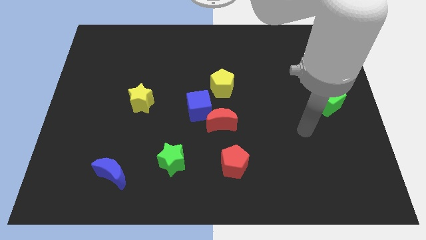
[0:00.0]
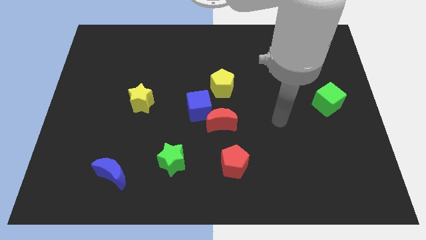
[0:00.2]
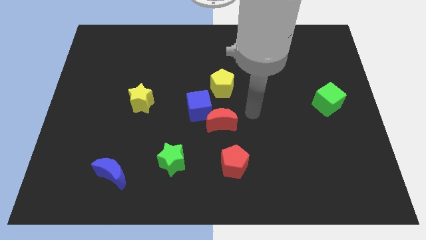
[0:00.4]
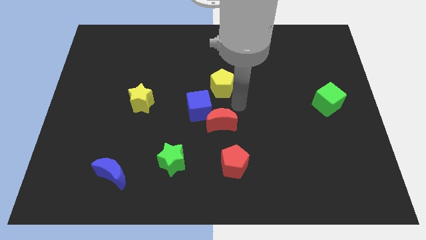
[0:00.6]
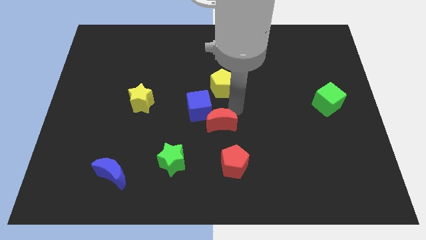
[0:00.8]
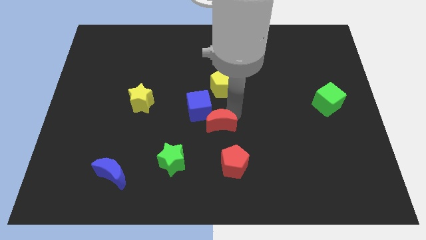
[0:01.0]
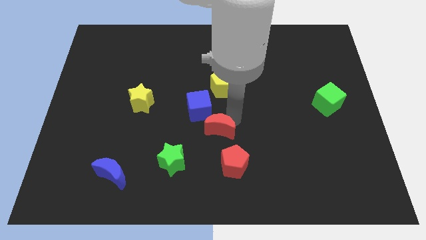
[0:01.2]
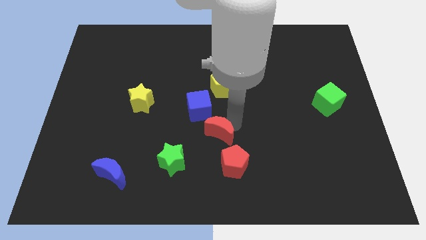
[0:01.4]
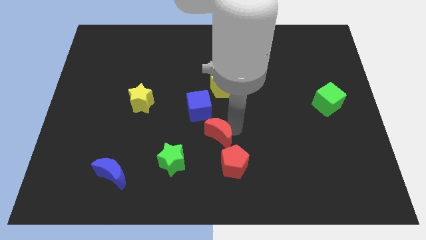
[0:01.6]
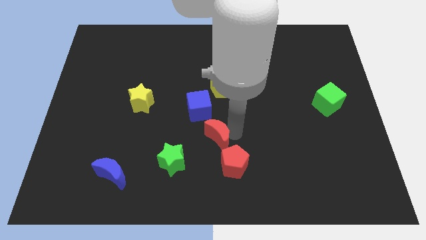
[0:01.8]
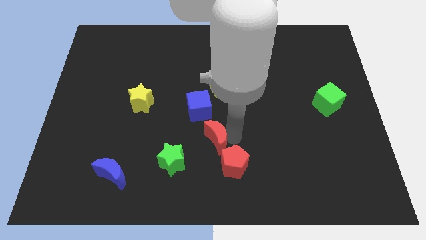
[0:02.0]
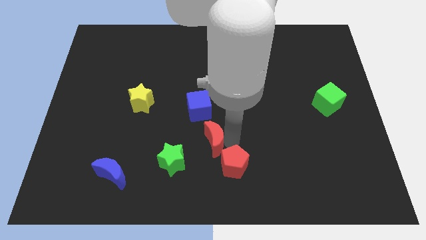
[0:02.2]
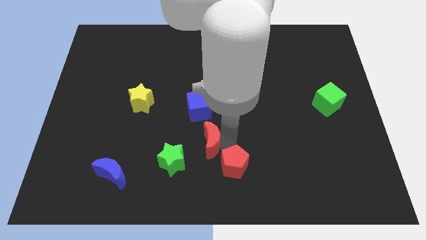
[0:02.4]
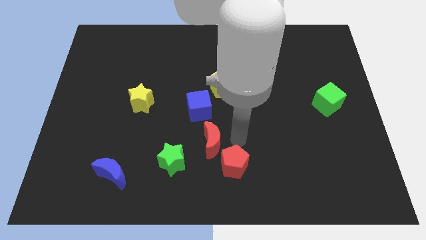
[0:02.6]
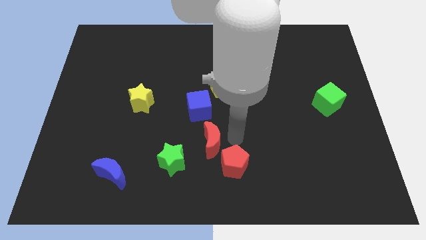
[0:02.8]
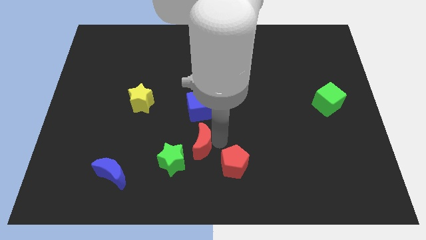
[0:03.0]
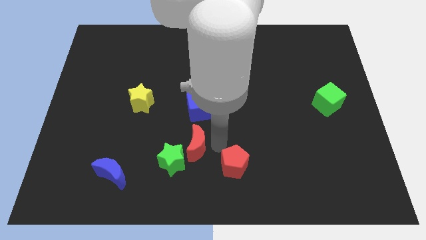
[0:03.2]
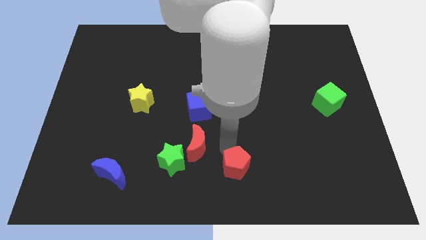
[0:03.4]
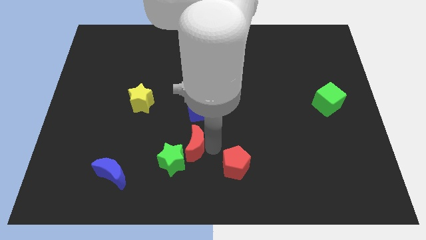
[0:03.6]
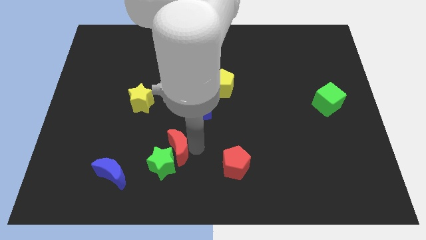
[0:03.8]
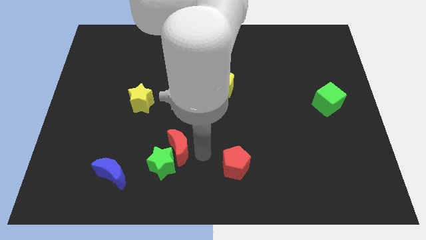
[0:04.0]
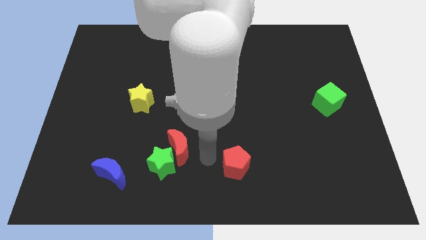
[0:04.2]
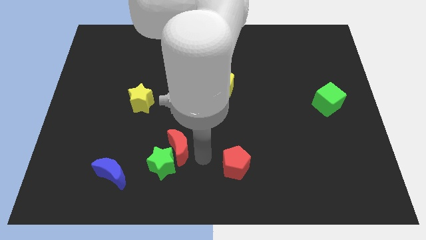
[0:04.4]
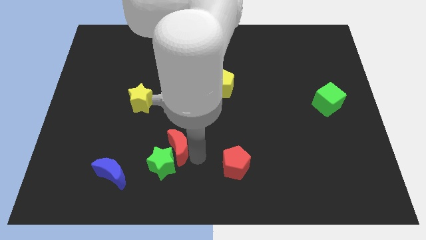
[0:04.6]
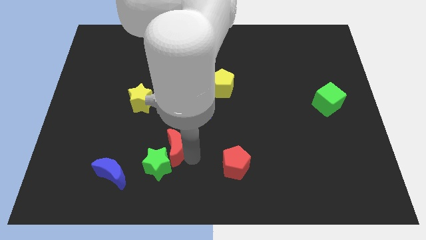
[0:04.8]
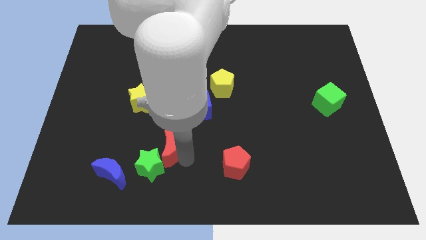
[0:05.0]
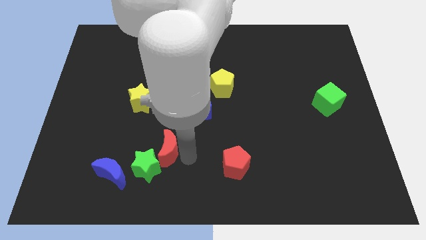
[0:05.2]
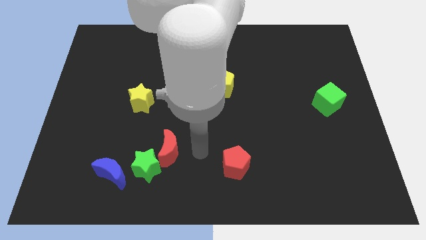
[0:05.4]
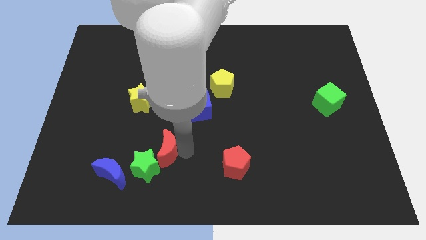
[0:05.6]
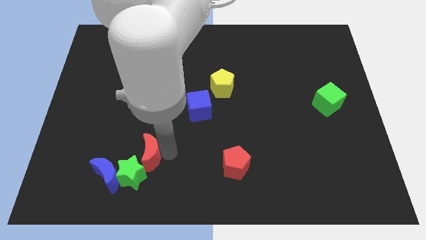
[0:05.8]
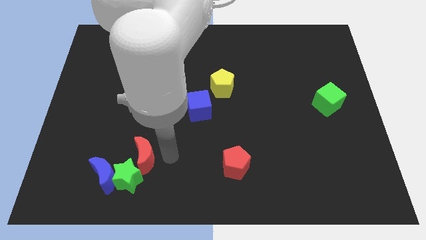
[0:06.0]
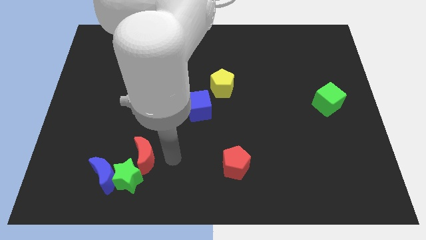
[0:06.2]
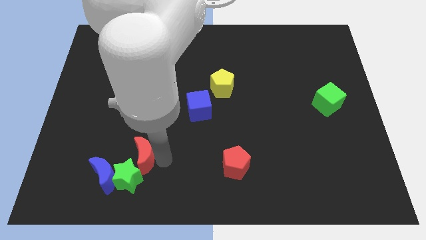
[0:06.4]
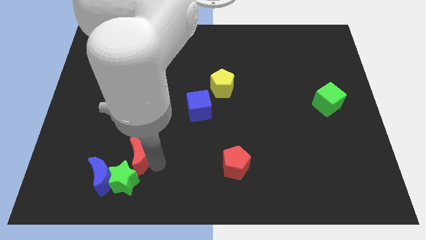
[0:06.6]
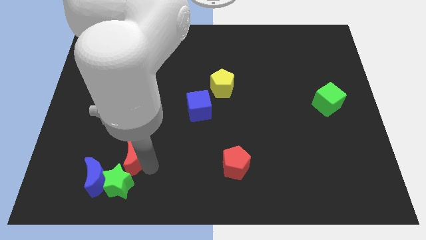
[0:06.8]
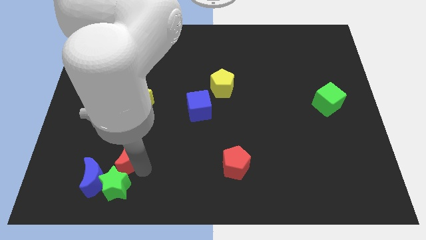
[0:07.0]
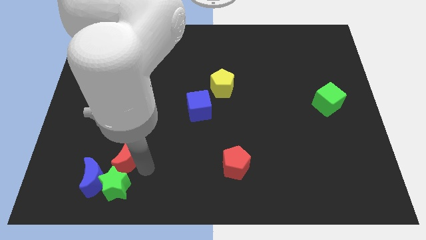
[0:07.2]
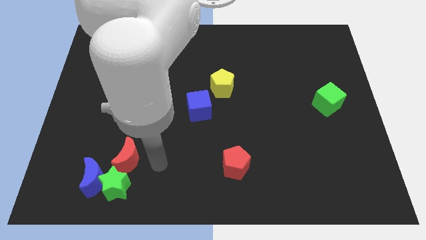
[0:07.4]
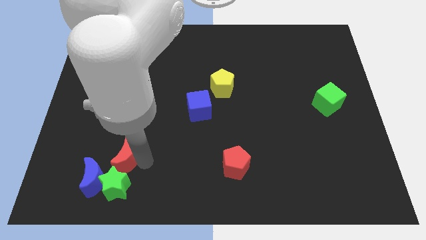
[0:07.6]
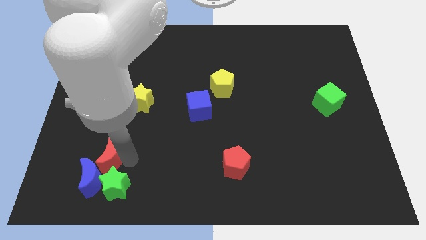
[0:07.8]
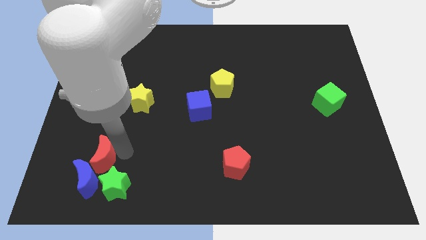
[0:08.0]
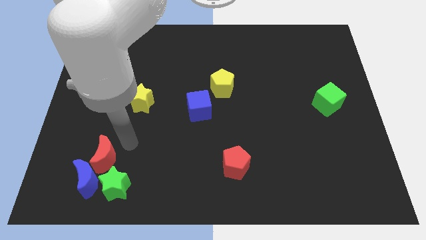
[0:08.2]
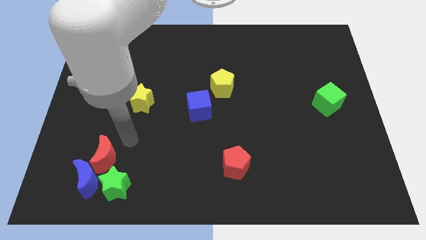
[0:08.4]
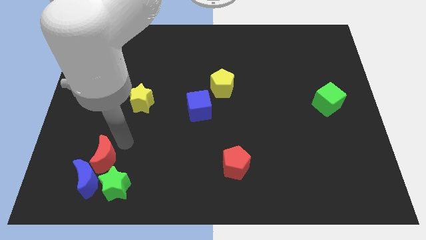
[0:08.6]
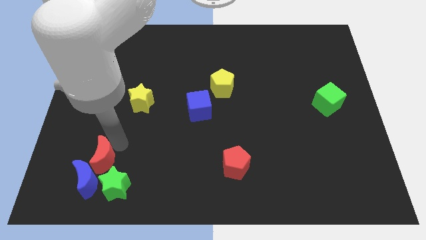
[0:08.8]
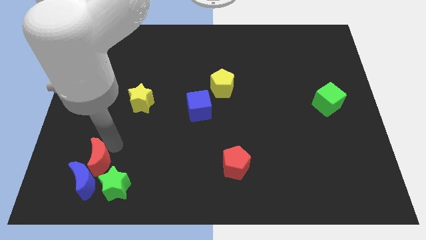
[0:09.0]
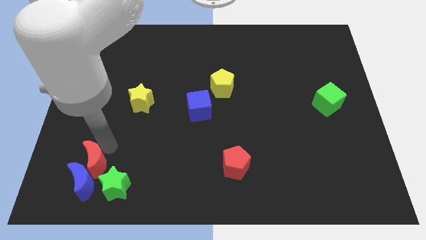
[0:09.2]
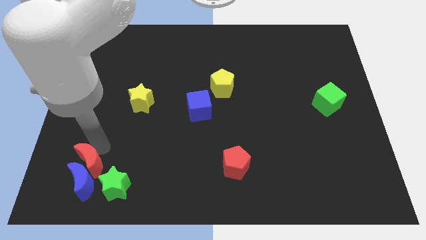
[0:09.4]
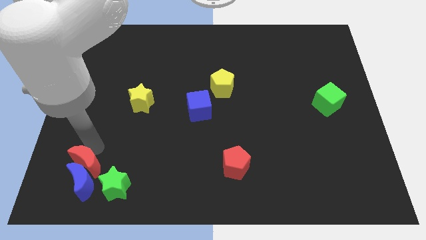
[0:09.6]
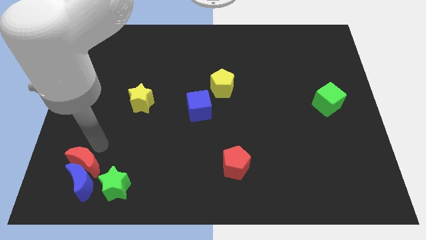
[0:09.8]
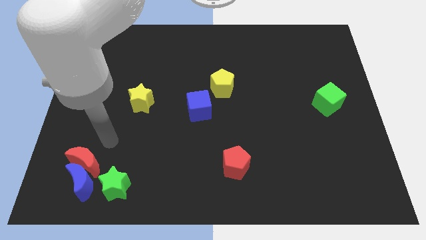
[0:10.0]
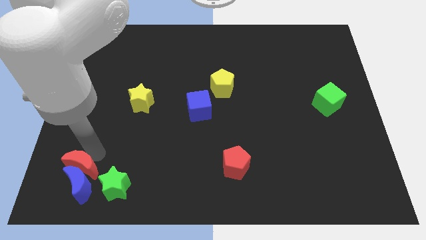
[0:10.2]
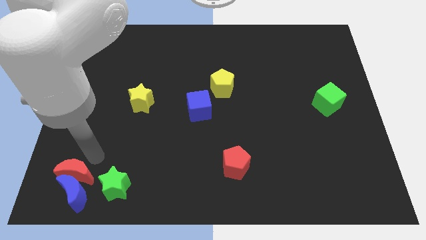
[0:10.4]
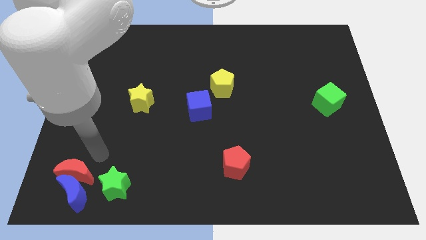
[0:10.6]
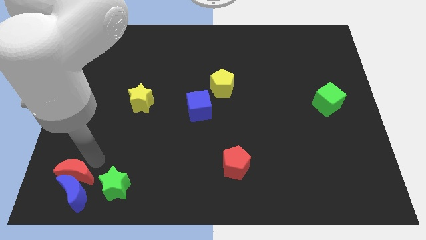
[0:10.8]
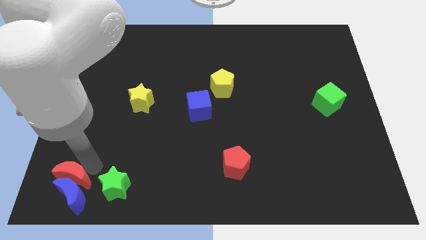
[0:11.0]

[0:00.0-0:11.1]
put the red moon to the lower left corner

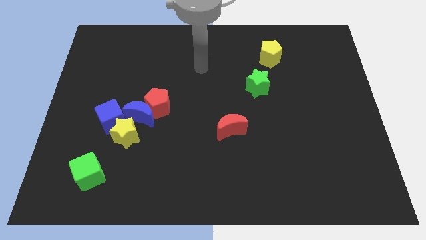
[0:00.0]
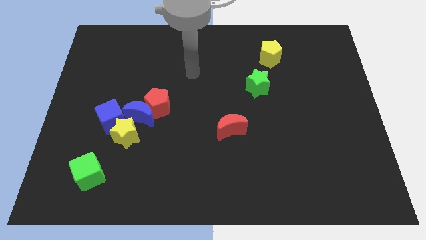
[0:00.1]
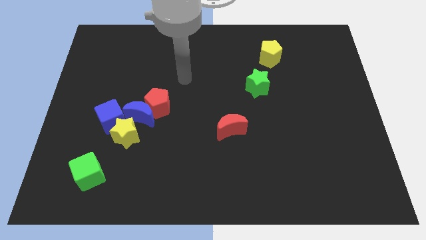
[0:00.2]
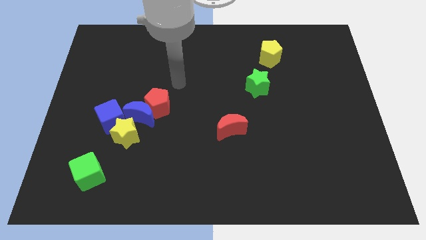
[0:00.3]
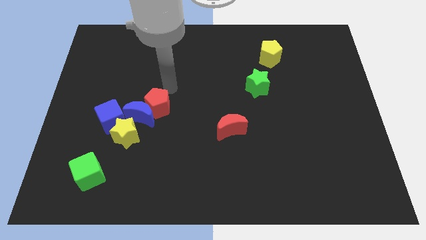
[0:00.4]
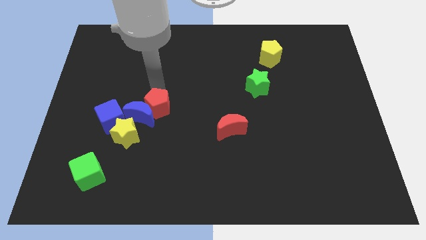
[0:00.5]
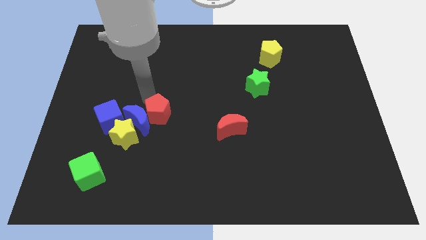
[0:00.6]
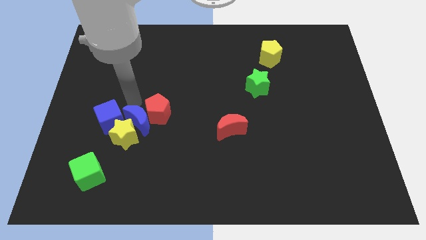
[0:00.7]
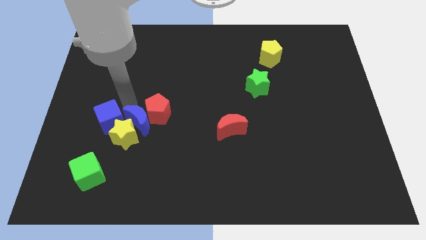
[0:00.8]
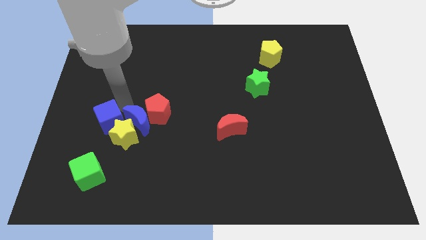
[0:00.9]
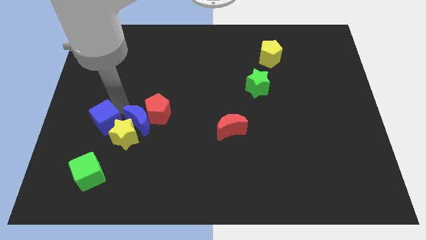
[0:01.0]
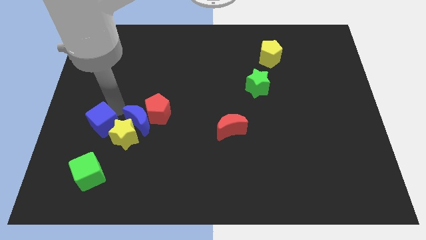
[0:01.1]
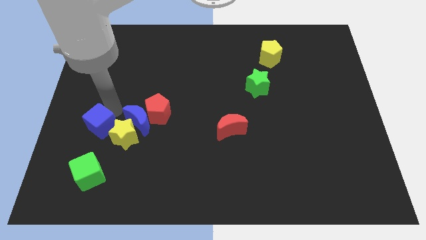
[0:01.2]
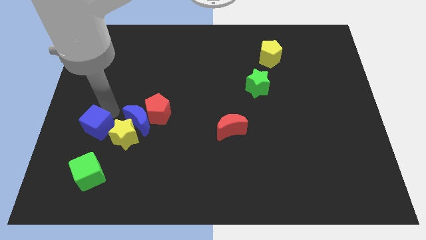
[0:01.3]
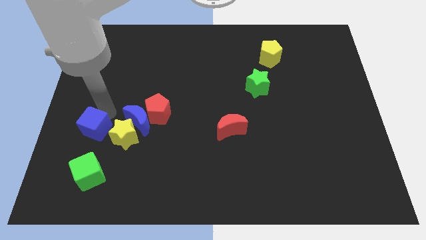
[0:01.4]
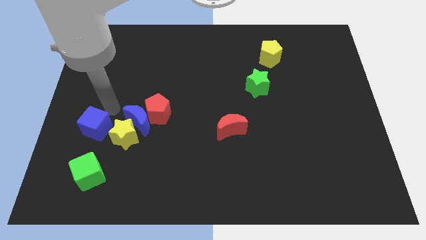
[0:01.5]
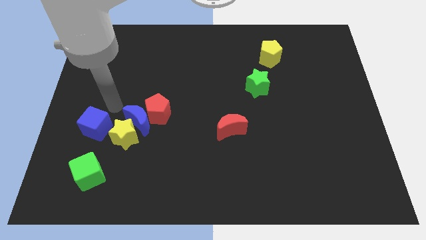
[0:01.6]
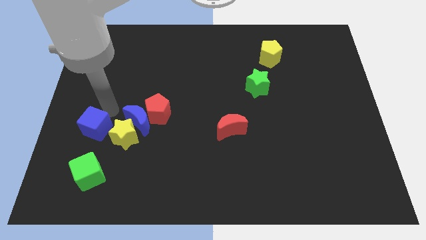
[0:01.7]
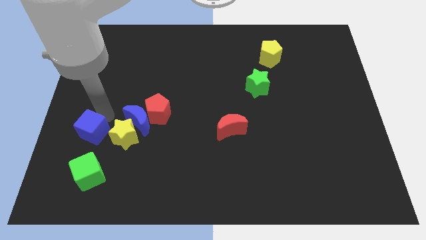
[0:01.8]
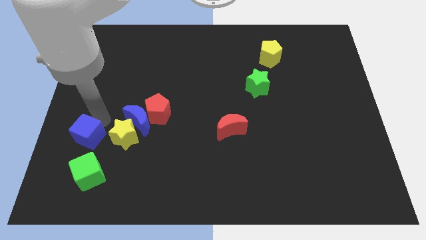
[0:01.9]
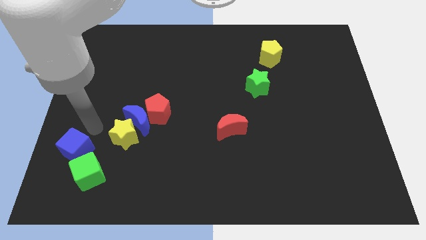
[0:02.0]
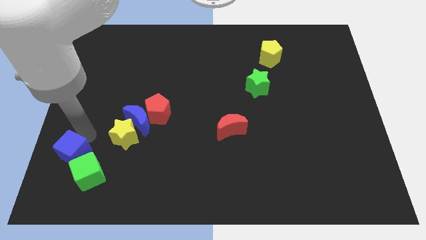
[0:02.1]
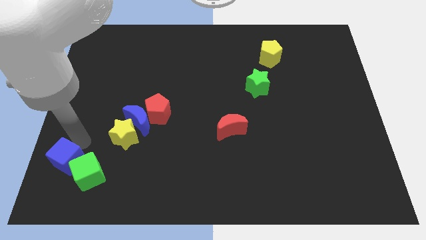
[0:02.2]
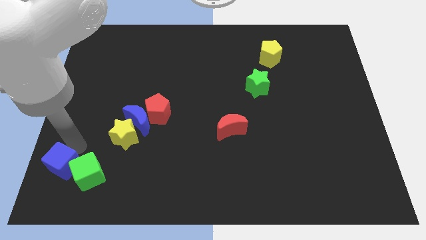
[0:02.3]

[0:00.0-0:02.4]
move the blue cube to the bottom left corner
